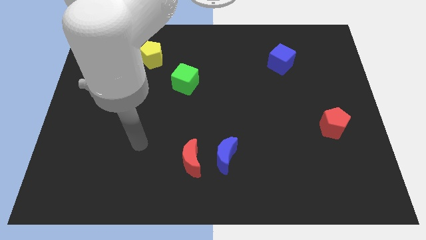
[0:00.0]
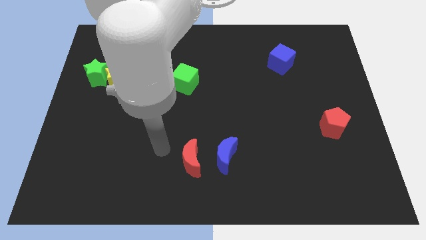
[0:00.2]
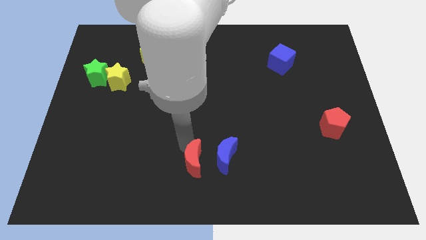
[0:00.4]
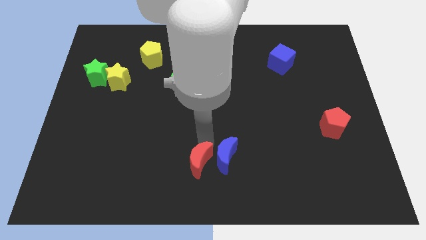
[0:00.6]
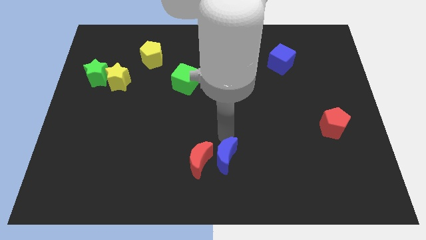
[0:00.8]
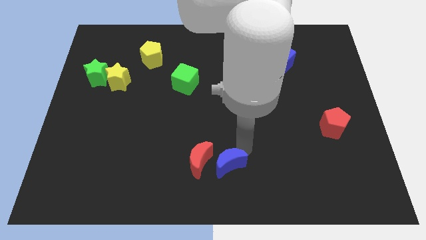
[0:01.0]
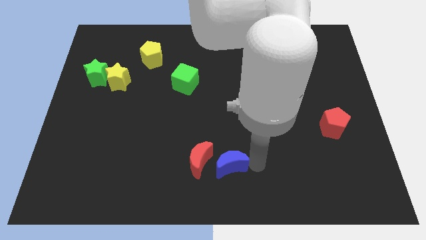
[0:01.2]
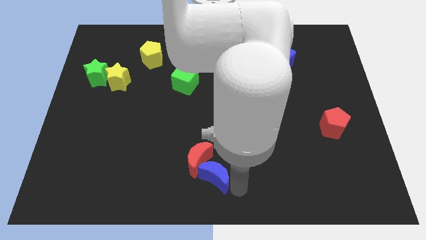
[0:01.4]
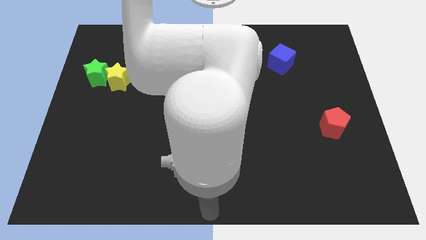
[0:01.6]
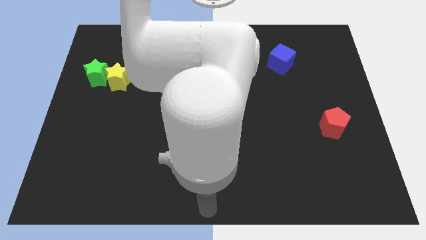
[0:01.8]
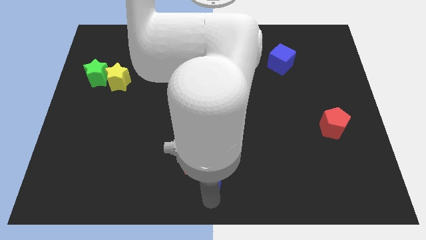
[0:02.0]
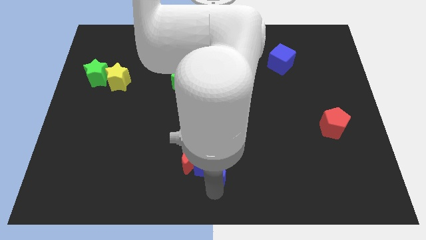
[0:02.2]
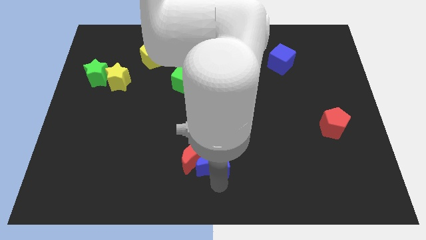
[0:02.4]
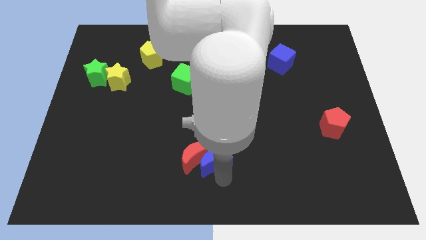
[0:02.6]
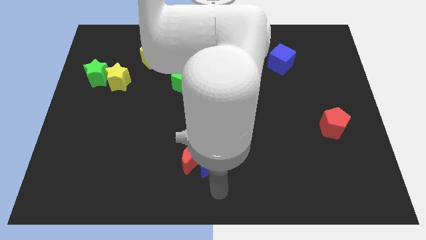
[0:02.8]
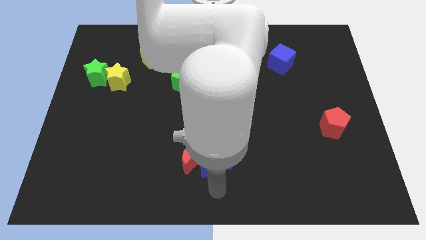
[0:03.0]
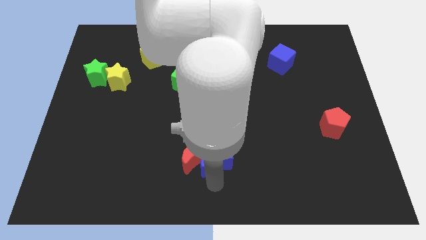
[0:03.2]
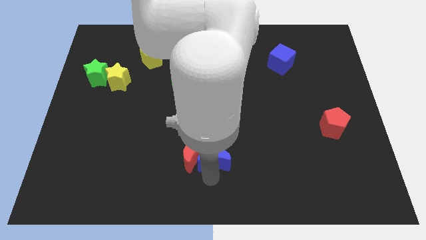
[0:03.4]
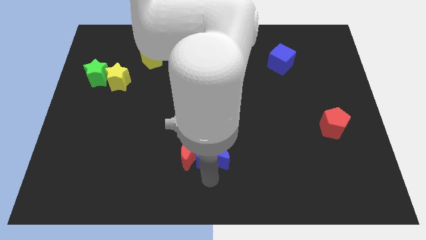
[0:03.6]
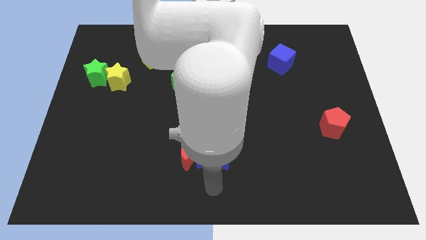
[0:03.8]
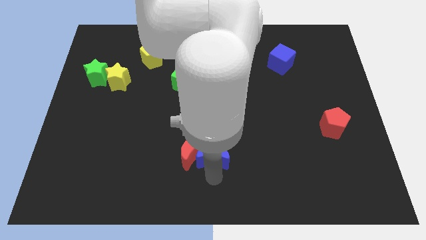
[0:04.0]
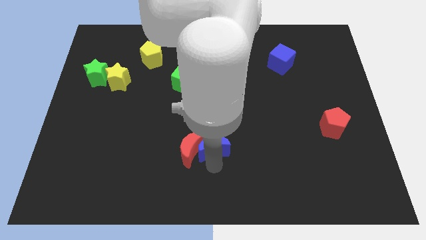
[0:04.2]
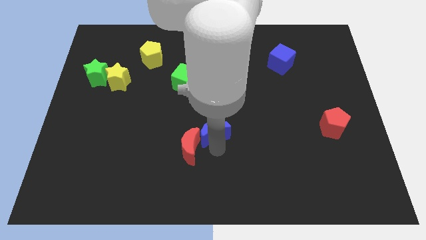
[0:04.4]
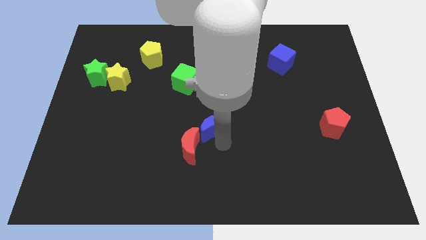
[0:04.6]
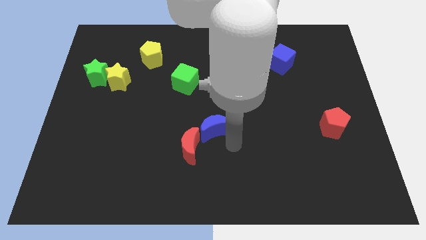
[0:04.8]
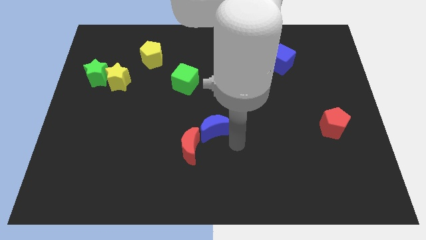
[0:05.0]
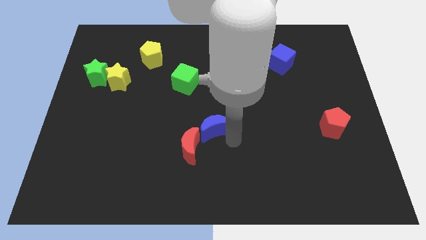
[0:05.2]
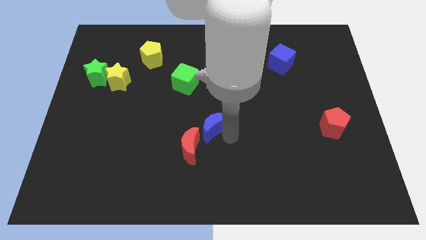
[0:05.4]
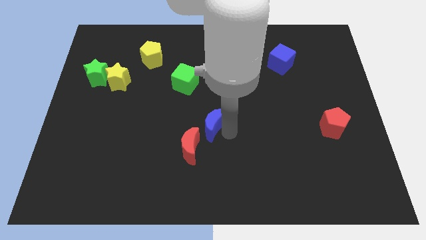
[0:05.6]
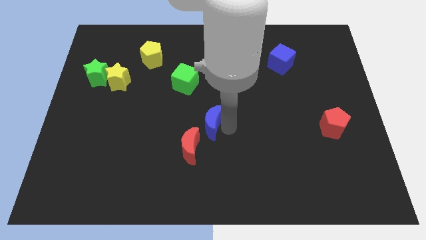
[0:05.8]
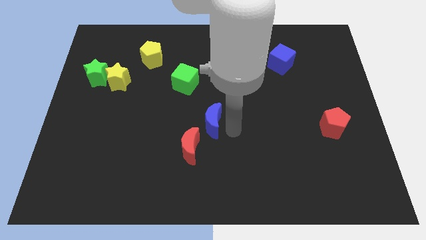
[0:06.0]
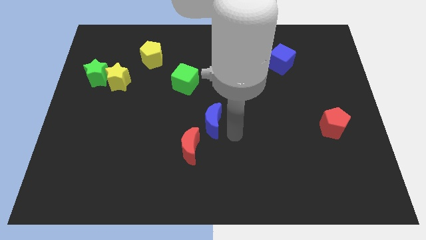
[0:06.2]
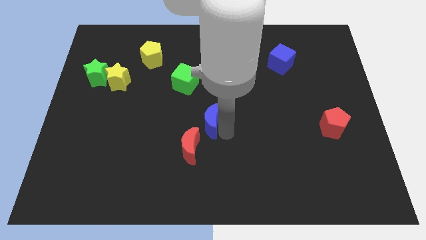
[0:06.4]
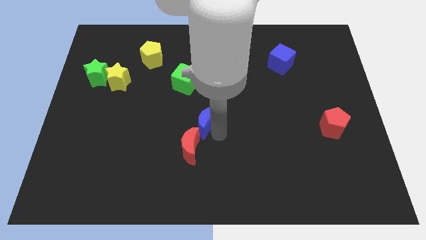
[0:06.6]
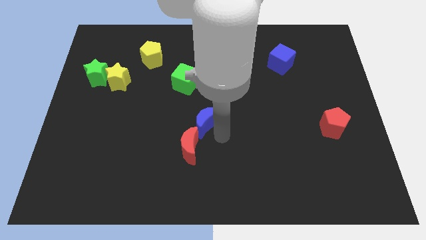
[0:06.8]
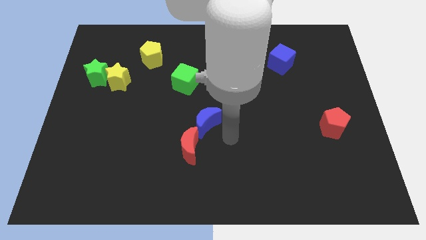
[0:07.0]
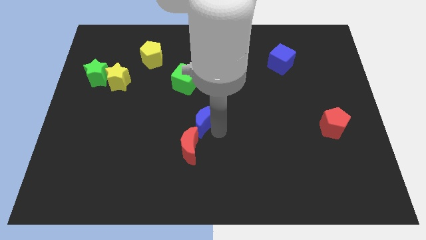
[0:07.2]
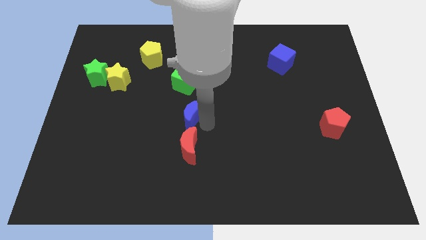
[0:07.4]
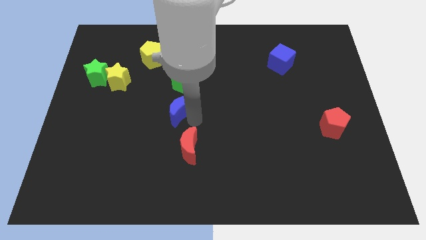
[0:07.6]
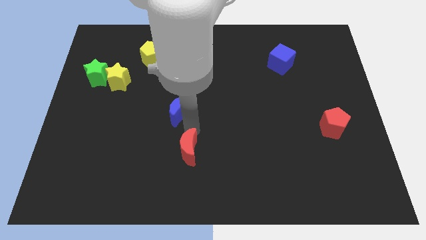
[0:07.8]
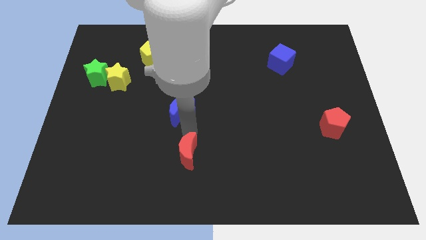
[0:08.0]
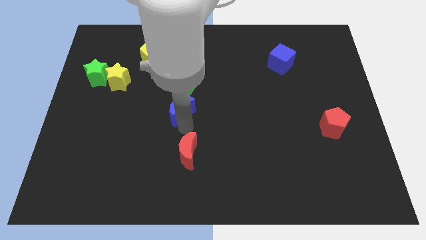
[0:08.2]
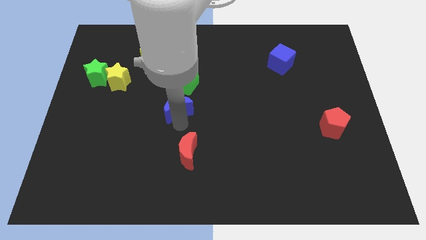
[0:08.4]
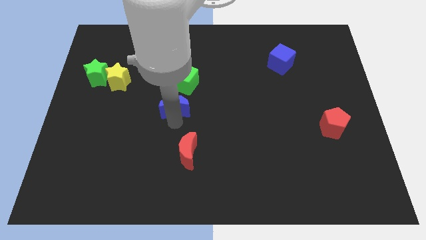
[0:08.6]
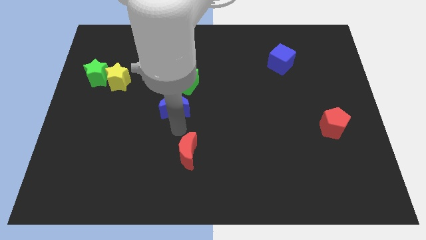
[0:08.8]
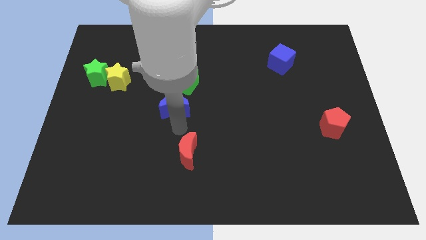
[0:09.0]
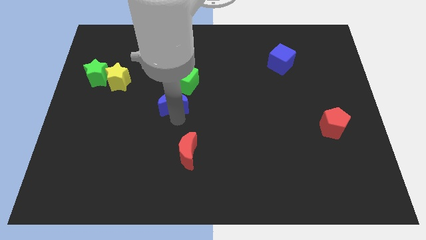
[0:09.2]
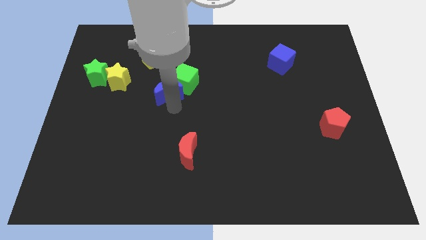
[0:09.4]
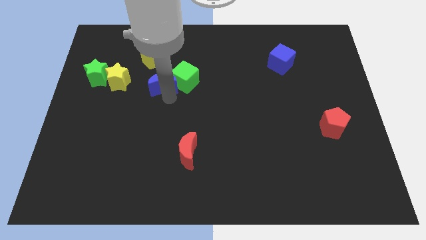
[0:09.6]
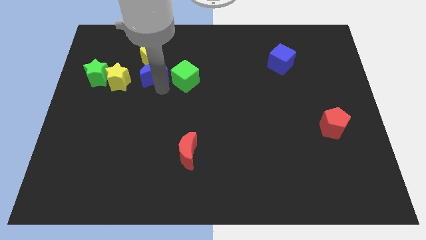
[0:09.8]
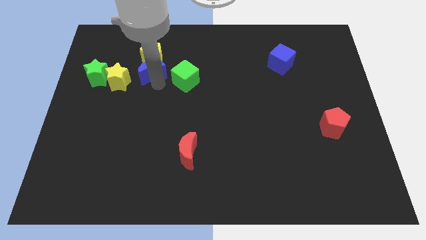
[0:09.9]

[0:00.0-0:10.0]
slide the blue moon next to the yellow pentagon

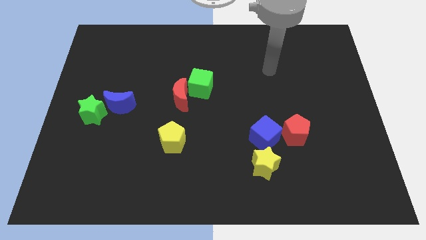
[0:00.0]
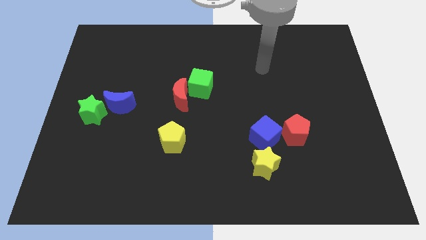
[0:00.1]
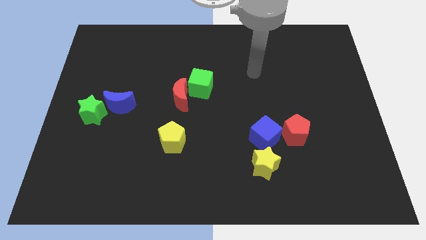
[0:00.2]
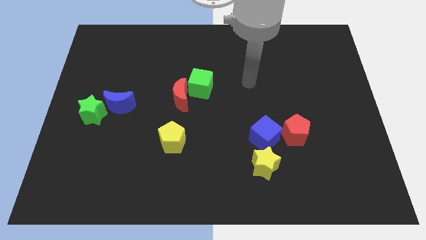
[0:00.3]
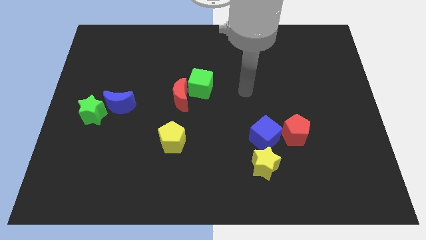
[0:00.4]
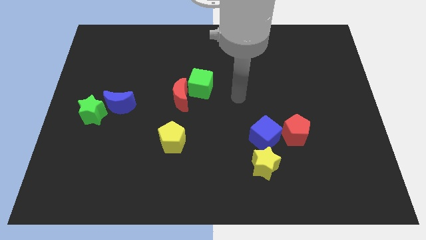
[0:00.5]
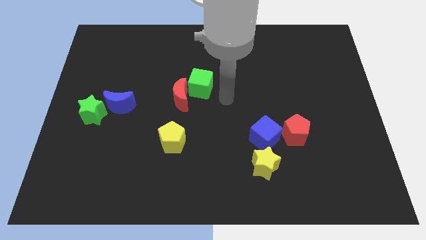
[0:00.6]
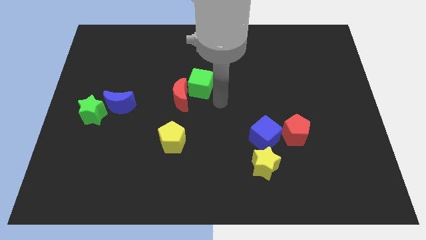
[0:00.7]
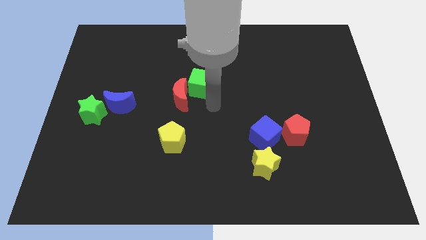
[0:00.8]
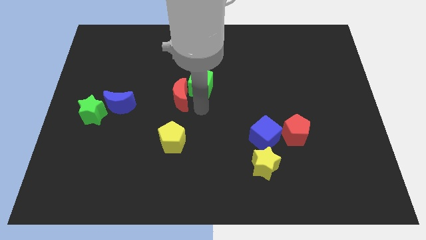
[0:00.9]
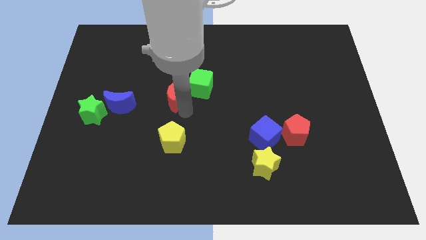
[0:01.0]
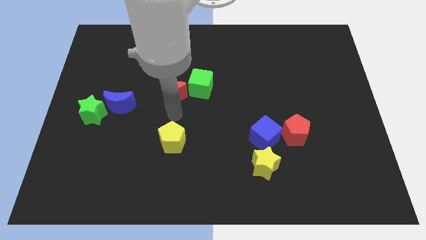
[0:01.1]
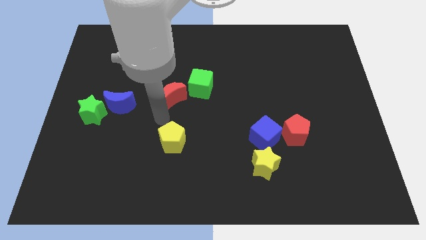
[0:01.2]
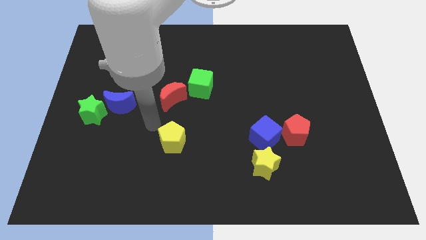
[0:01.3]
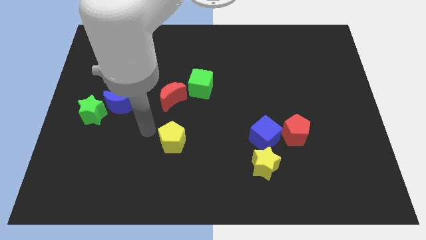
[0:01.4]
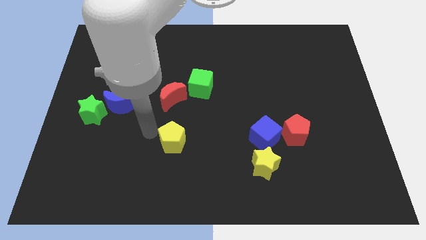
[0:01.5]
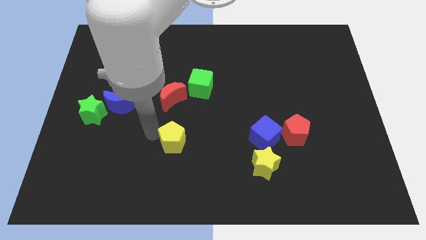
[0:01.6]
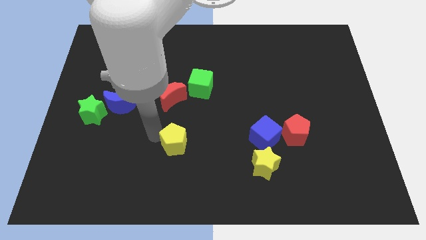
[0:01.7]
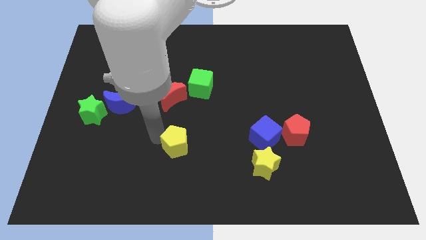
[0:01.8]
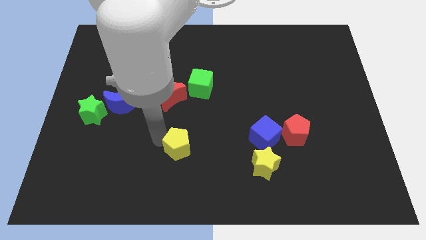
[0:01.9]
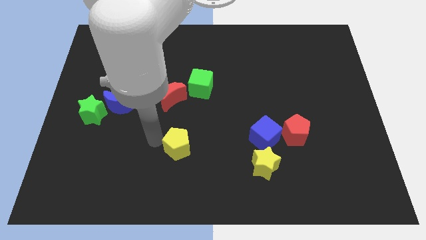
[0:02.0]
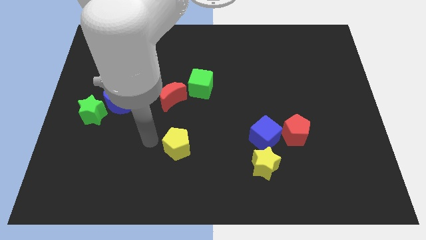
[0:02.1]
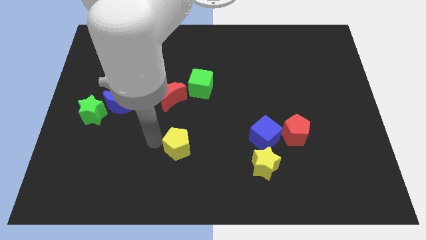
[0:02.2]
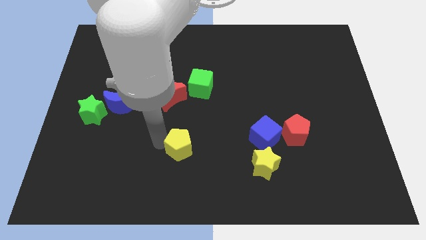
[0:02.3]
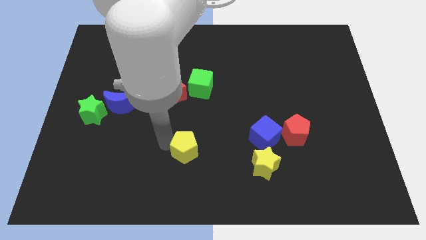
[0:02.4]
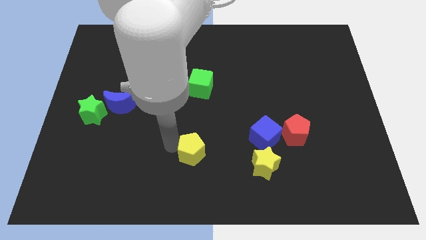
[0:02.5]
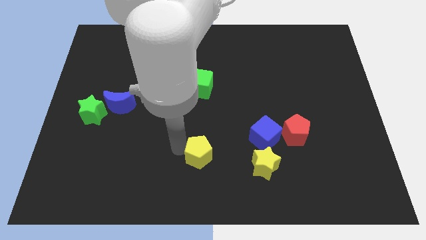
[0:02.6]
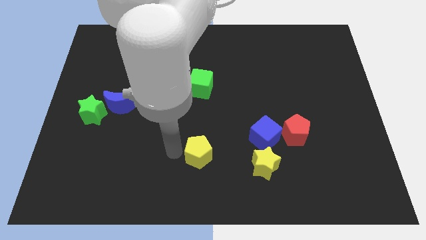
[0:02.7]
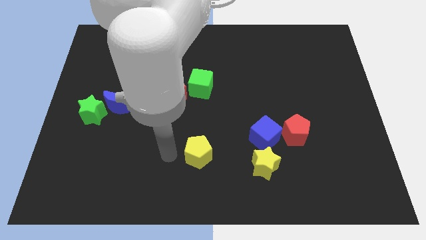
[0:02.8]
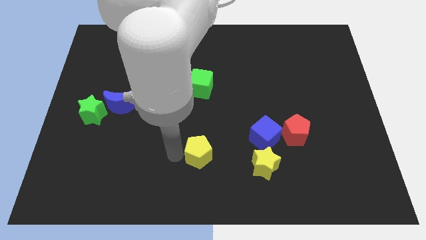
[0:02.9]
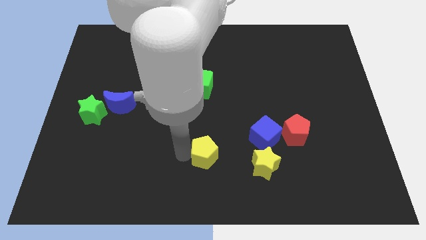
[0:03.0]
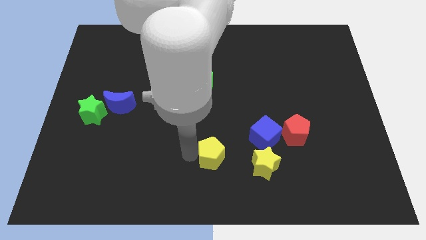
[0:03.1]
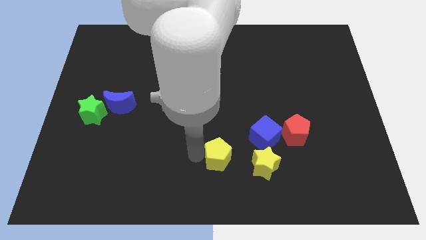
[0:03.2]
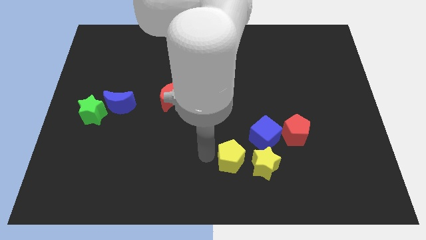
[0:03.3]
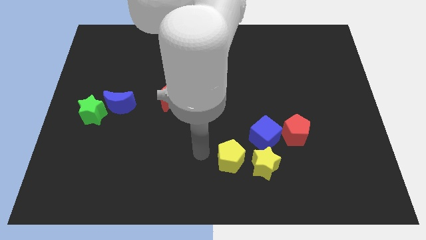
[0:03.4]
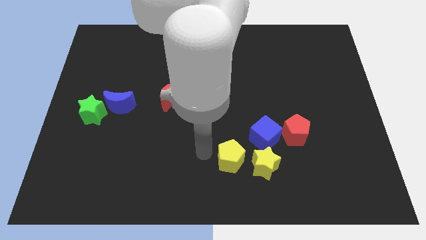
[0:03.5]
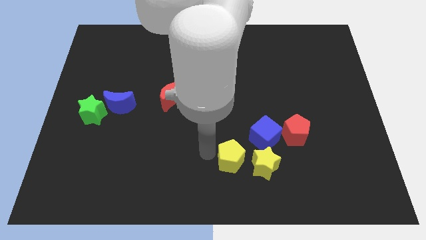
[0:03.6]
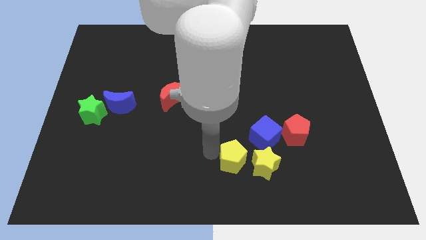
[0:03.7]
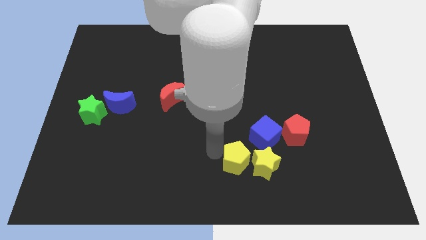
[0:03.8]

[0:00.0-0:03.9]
slide the yellow pentagon next to the yellow star
